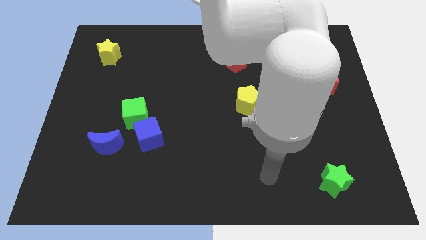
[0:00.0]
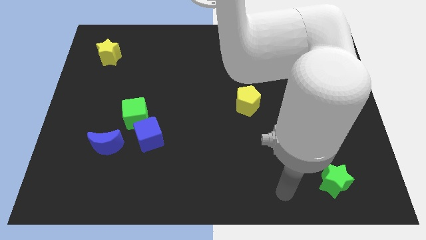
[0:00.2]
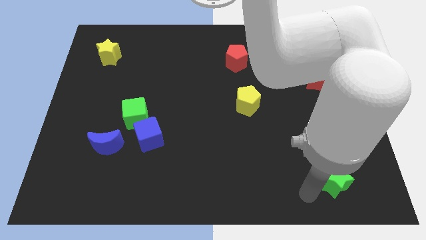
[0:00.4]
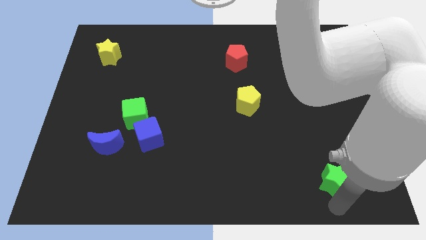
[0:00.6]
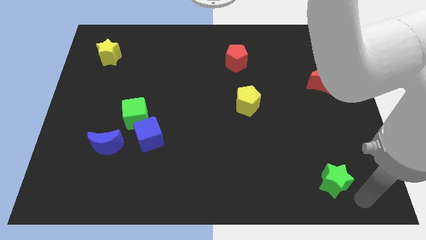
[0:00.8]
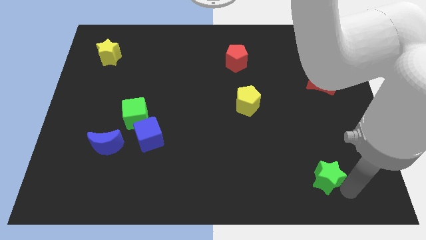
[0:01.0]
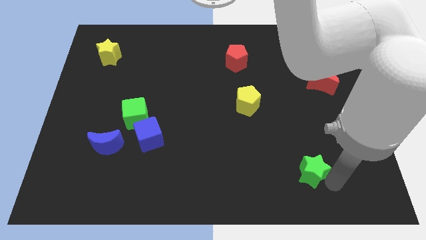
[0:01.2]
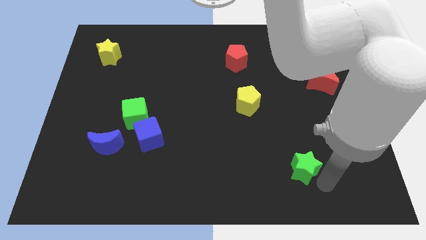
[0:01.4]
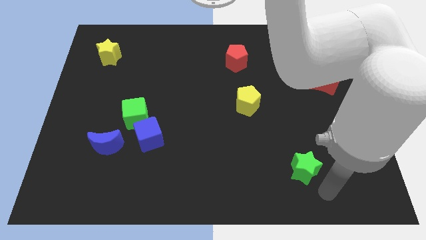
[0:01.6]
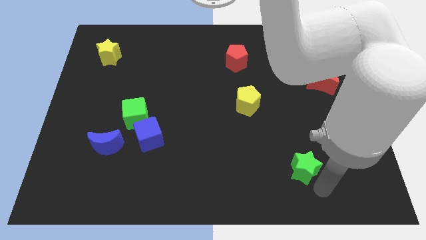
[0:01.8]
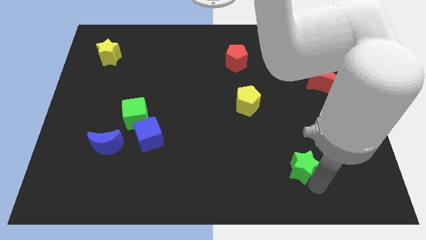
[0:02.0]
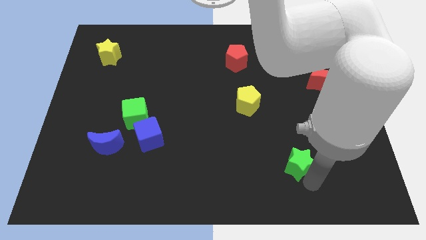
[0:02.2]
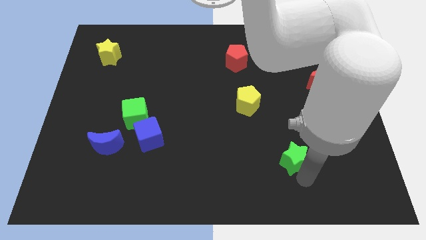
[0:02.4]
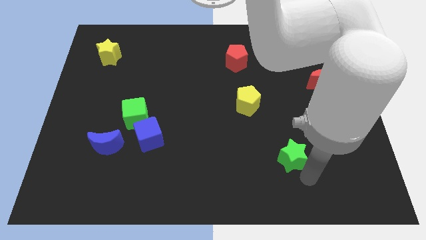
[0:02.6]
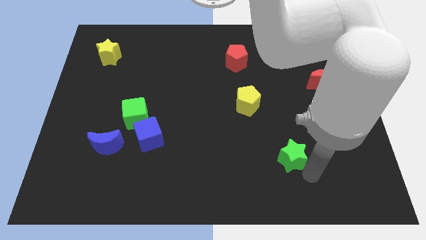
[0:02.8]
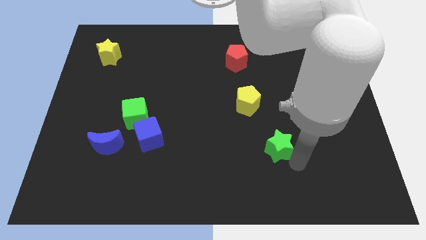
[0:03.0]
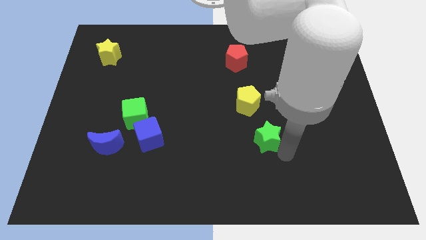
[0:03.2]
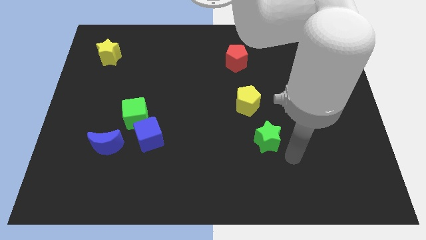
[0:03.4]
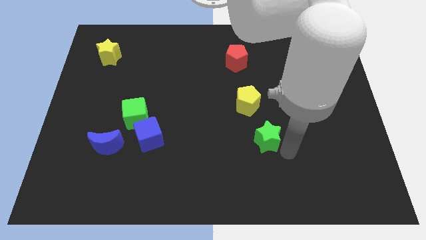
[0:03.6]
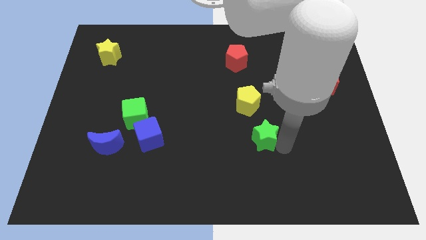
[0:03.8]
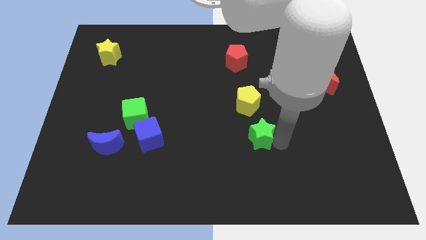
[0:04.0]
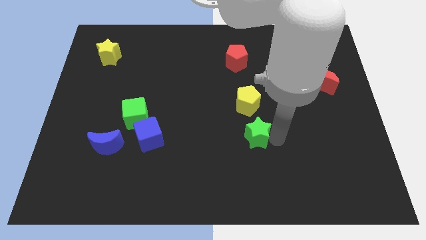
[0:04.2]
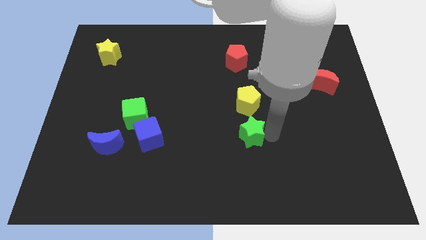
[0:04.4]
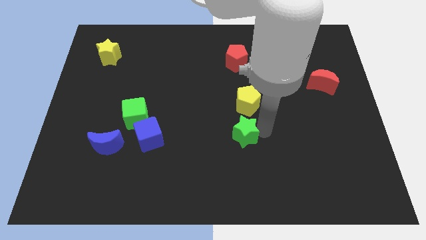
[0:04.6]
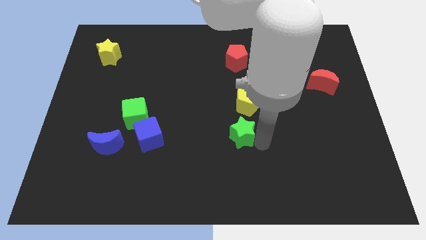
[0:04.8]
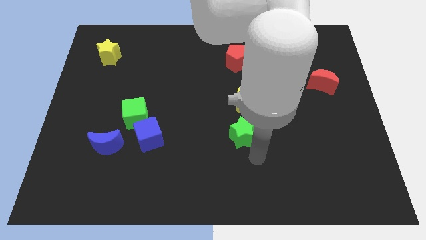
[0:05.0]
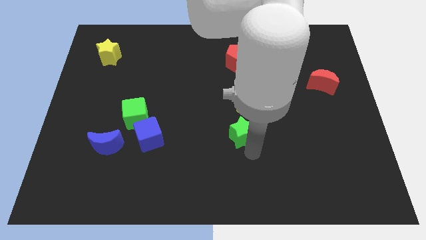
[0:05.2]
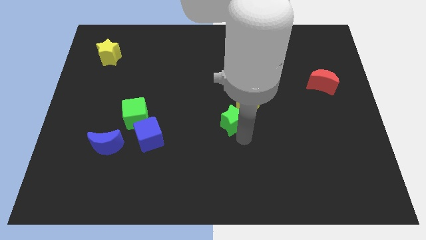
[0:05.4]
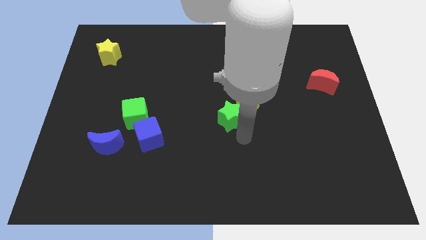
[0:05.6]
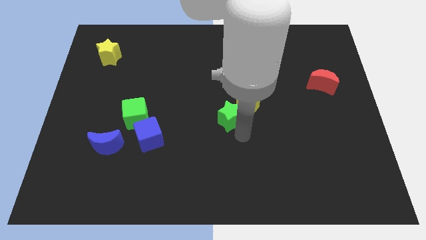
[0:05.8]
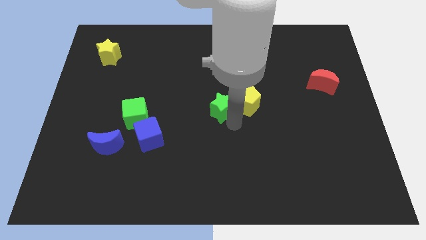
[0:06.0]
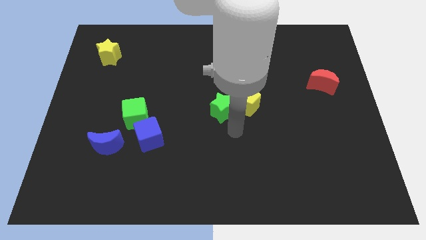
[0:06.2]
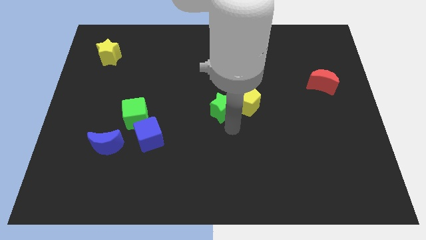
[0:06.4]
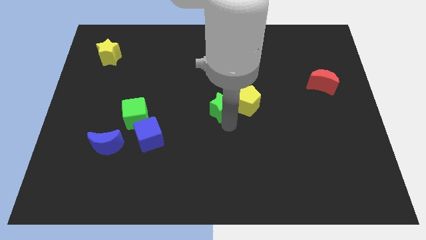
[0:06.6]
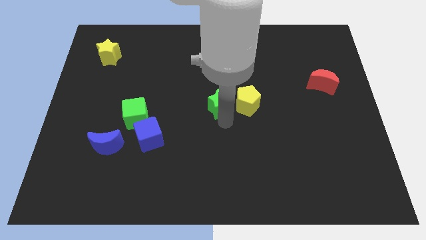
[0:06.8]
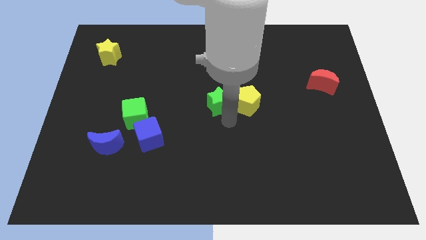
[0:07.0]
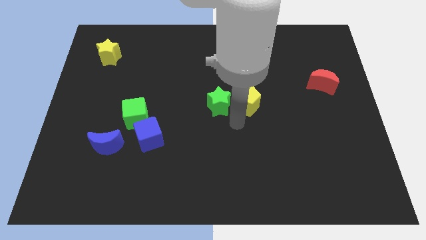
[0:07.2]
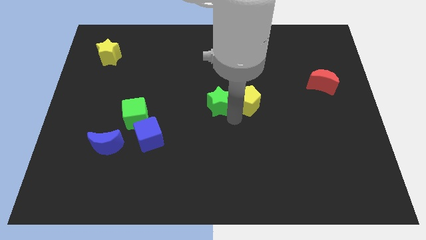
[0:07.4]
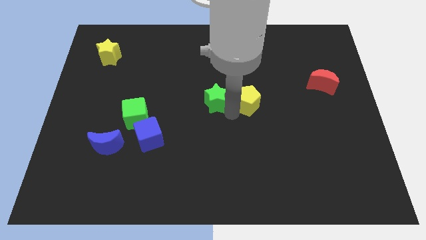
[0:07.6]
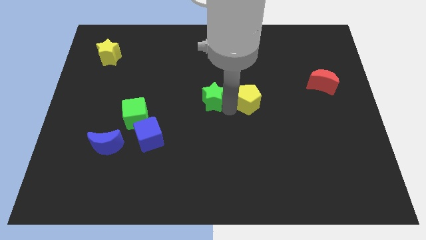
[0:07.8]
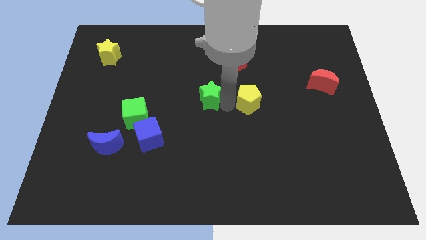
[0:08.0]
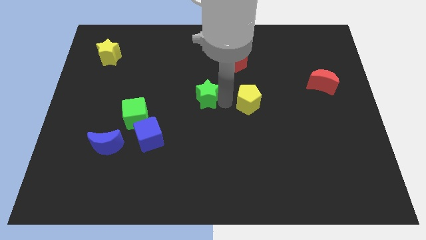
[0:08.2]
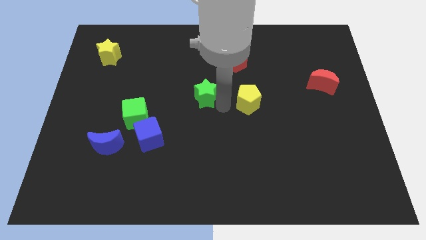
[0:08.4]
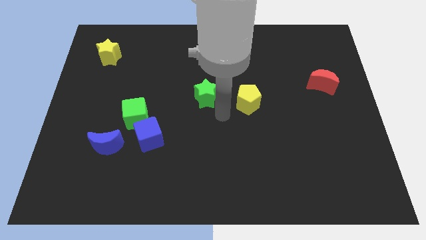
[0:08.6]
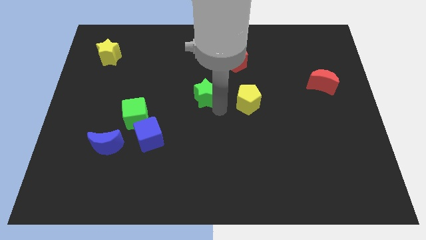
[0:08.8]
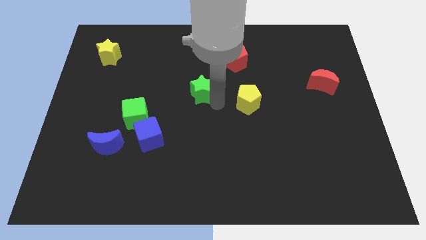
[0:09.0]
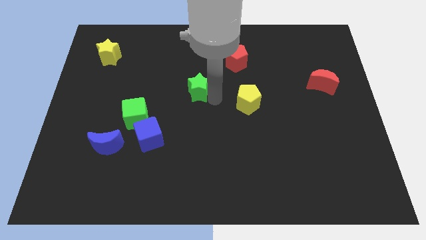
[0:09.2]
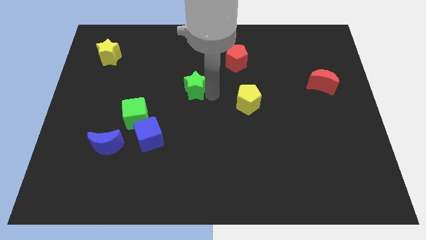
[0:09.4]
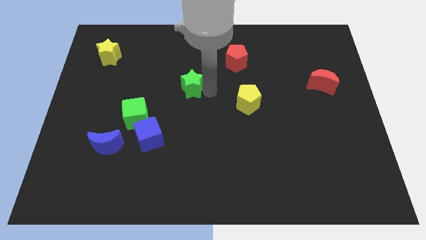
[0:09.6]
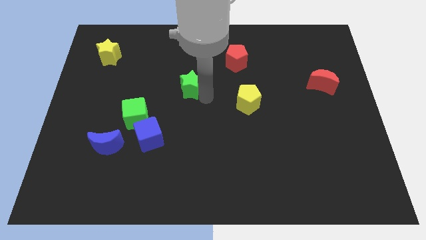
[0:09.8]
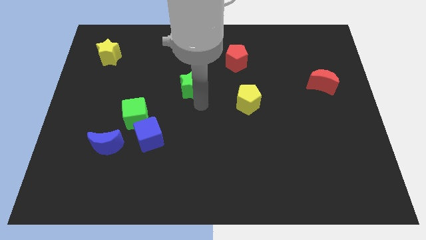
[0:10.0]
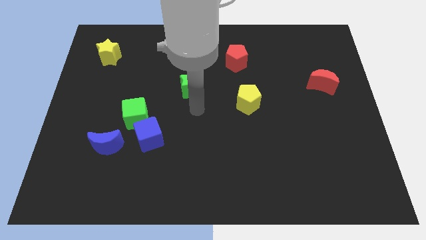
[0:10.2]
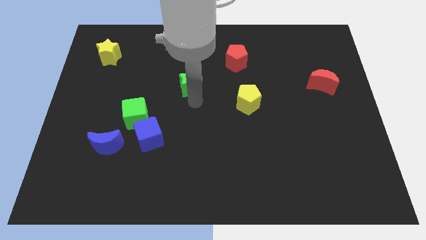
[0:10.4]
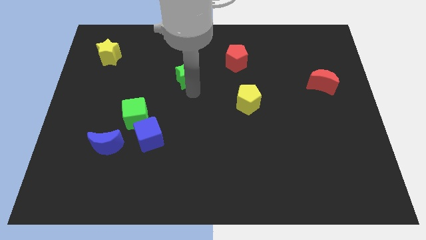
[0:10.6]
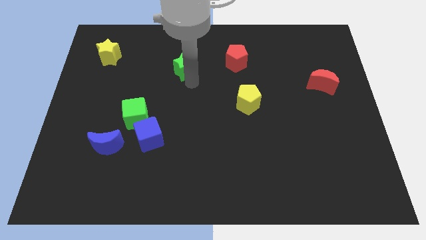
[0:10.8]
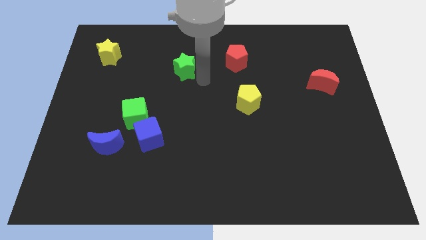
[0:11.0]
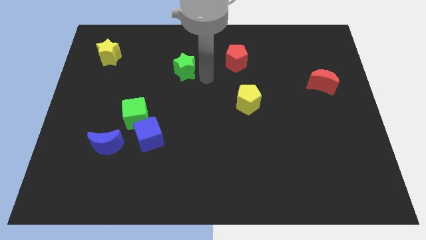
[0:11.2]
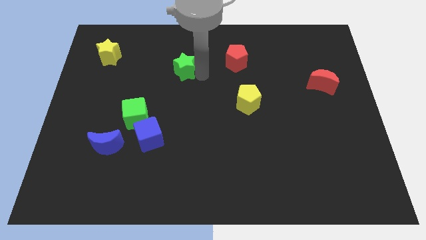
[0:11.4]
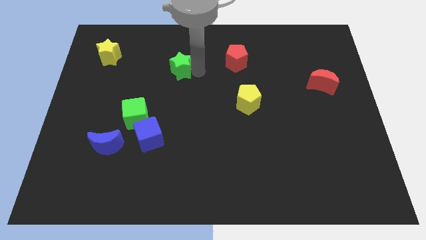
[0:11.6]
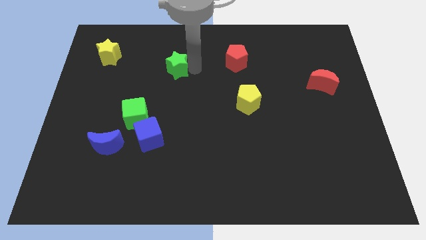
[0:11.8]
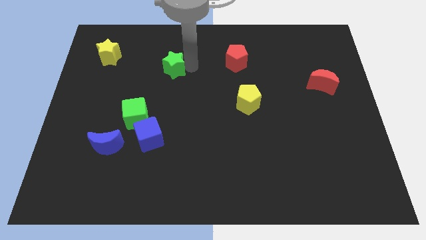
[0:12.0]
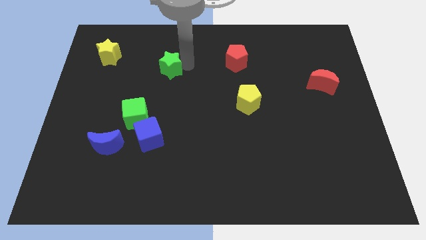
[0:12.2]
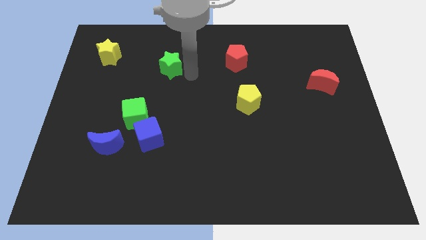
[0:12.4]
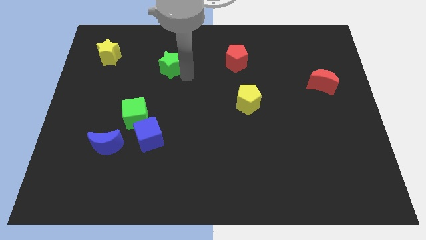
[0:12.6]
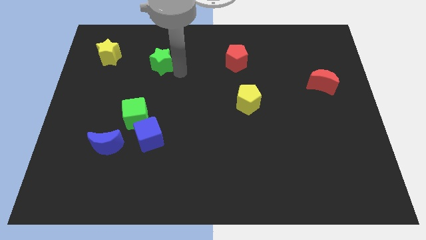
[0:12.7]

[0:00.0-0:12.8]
push the green star right of the yellow star

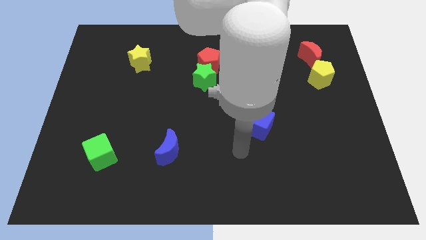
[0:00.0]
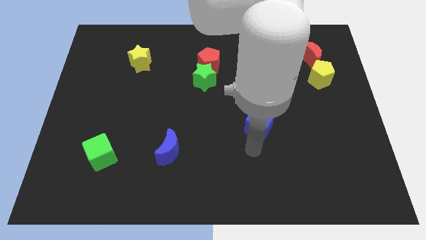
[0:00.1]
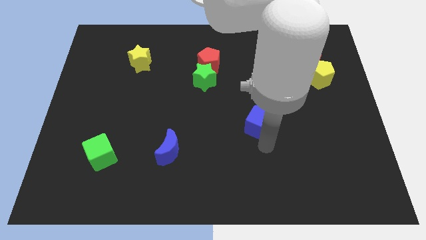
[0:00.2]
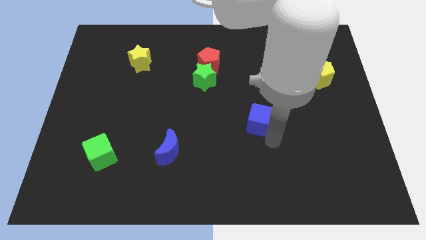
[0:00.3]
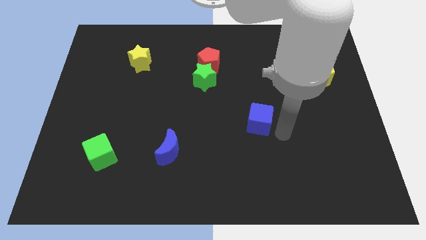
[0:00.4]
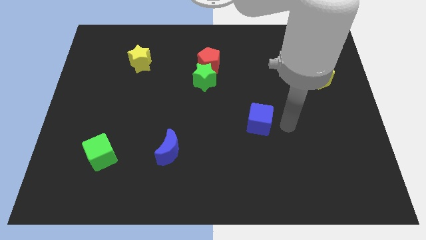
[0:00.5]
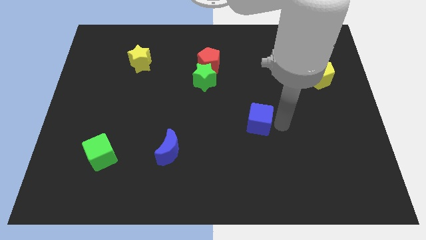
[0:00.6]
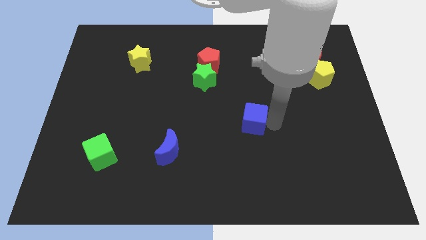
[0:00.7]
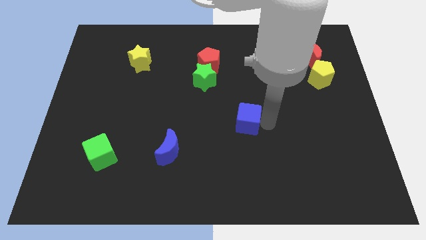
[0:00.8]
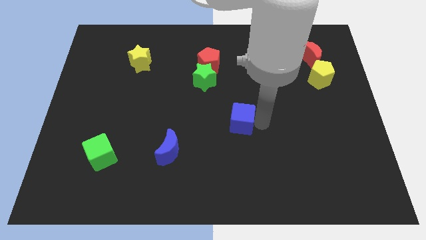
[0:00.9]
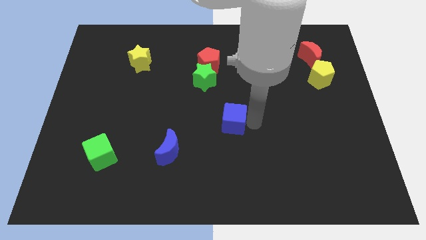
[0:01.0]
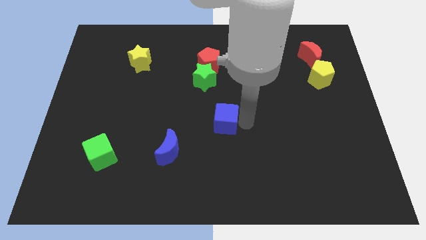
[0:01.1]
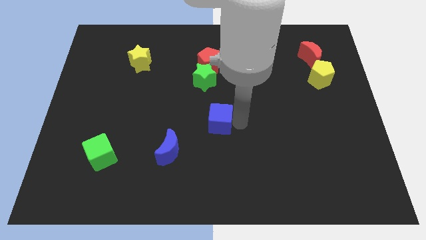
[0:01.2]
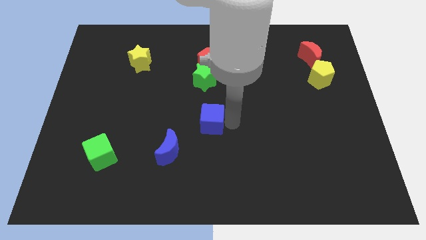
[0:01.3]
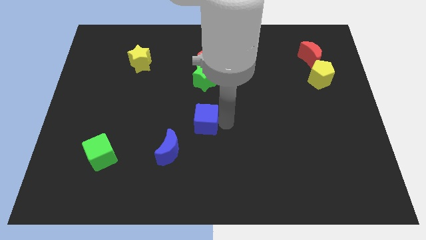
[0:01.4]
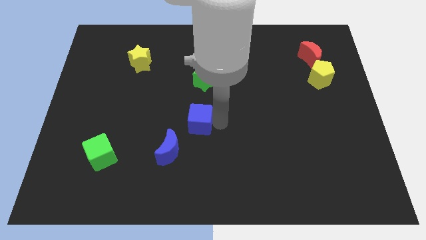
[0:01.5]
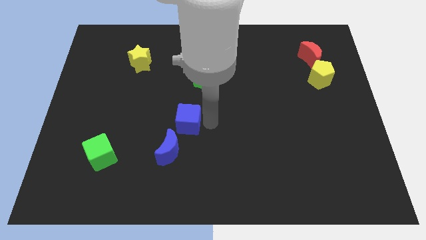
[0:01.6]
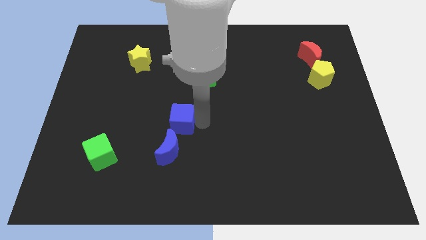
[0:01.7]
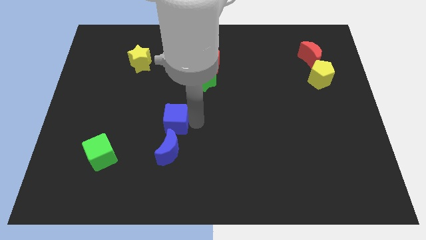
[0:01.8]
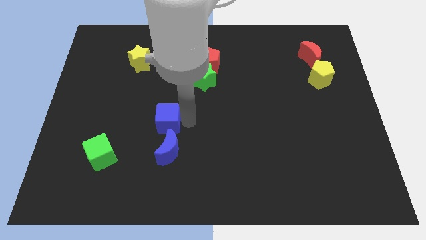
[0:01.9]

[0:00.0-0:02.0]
move the blue cube diagonally up and to the left of the blue moon

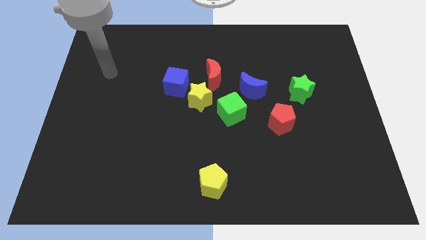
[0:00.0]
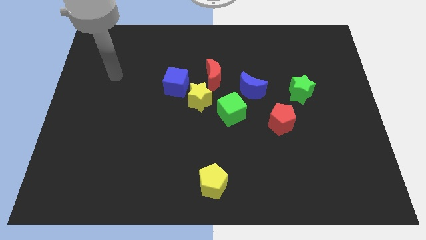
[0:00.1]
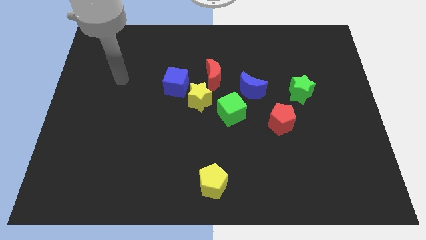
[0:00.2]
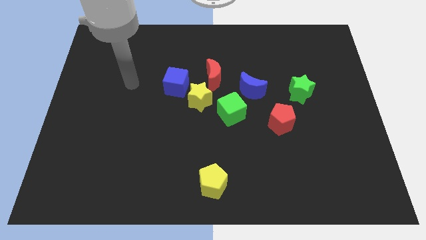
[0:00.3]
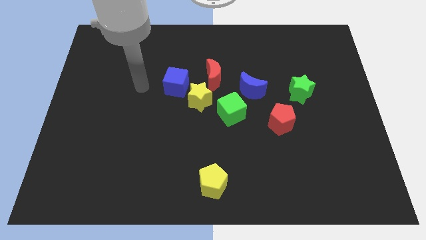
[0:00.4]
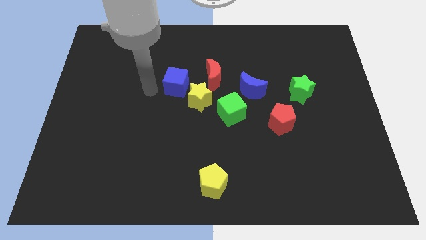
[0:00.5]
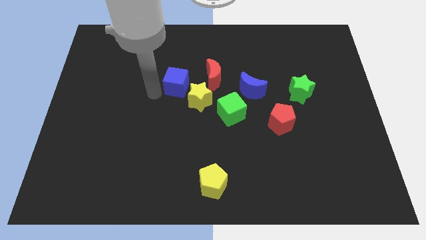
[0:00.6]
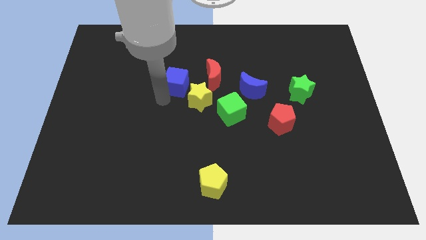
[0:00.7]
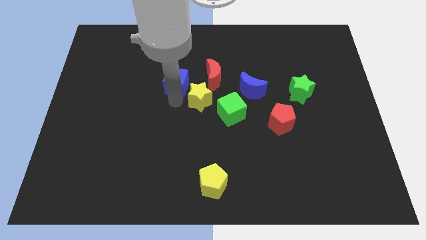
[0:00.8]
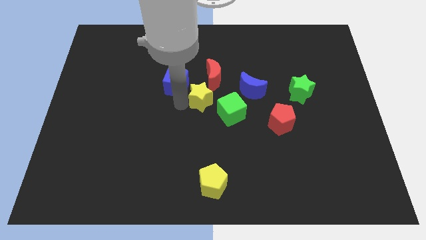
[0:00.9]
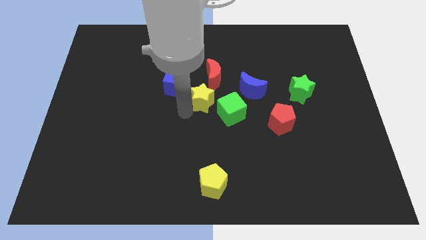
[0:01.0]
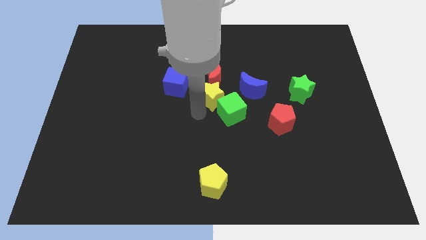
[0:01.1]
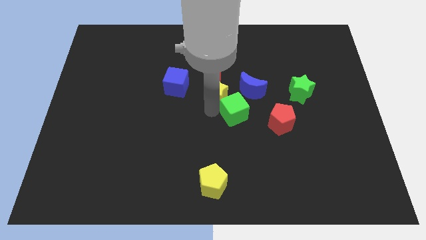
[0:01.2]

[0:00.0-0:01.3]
slide the red moon diagonally up and to the left of the yellow star
